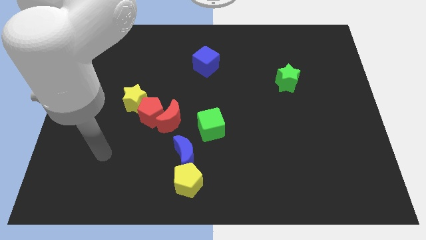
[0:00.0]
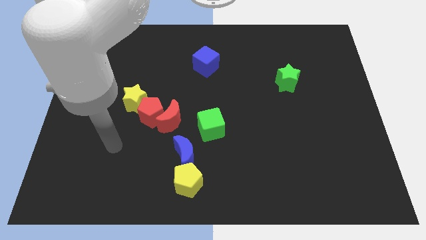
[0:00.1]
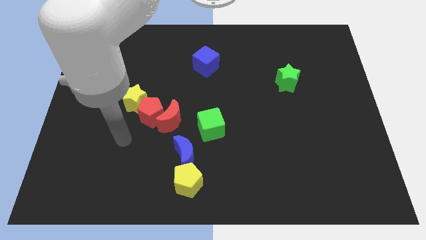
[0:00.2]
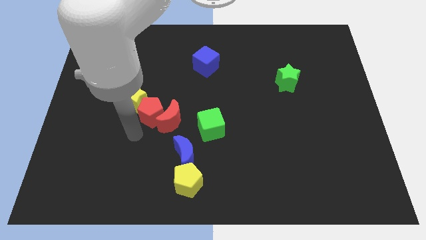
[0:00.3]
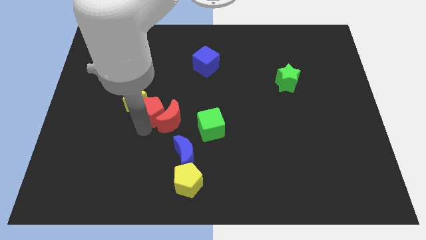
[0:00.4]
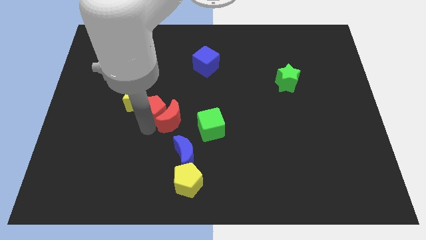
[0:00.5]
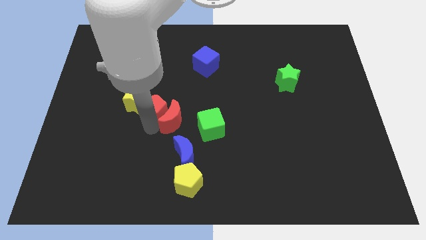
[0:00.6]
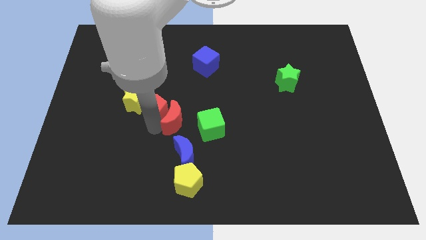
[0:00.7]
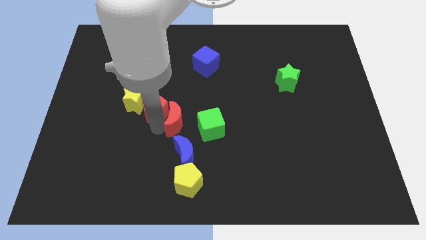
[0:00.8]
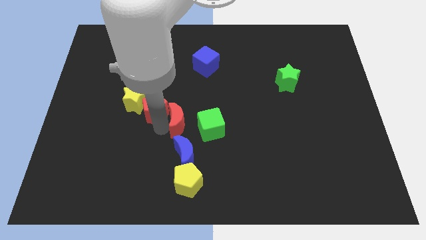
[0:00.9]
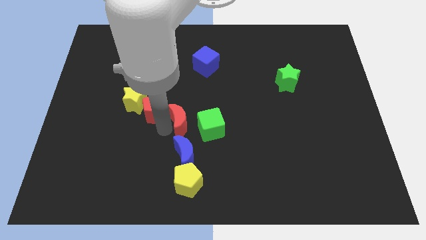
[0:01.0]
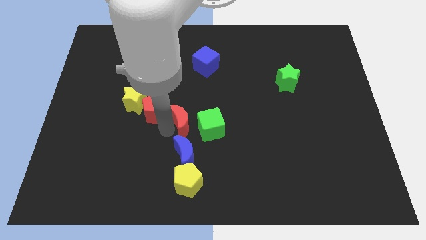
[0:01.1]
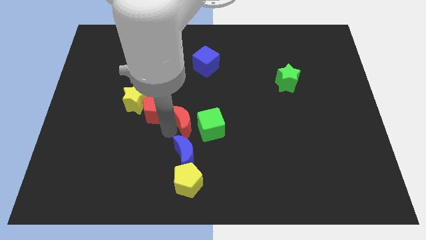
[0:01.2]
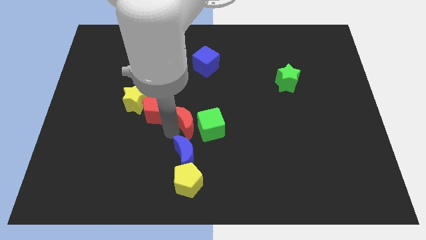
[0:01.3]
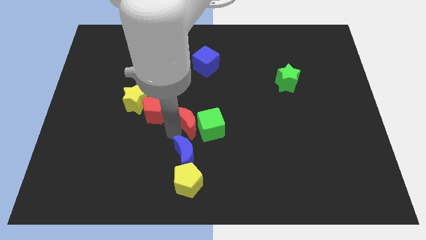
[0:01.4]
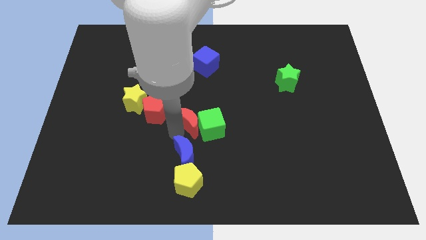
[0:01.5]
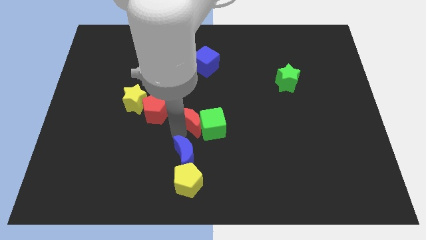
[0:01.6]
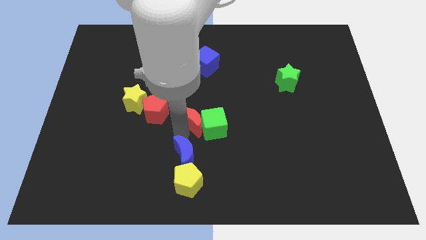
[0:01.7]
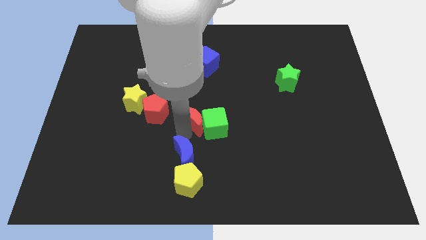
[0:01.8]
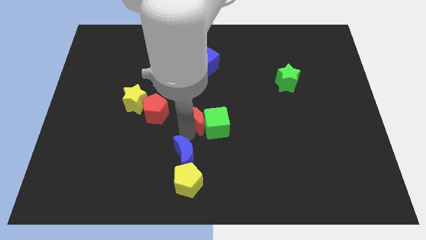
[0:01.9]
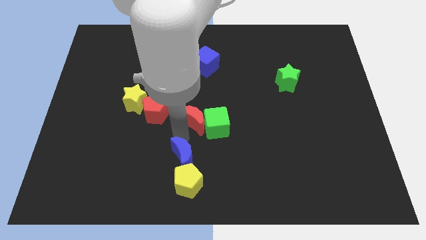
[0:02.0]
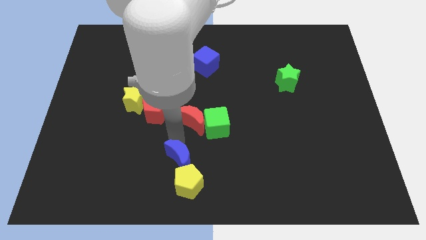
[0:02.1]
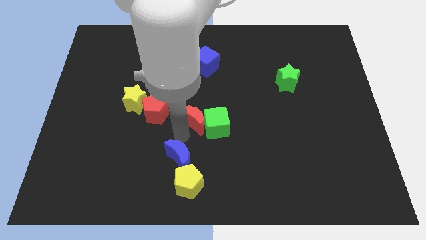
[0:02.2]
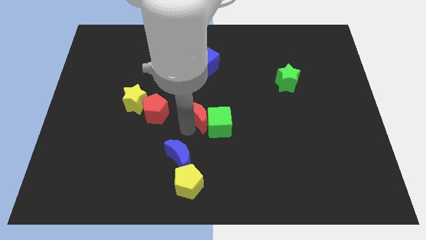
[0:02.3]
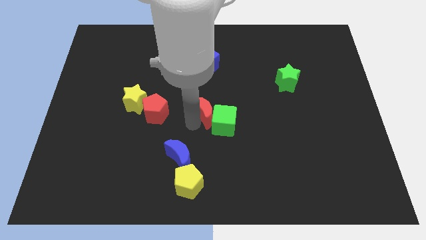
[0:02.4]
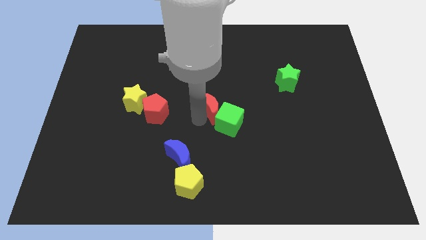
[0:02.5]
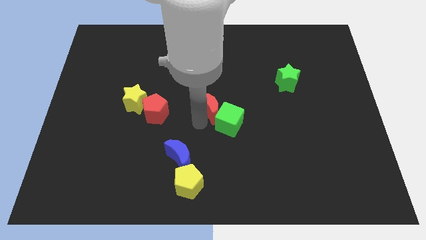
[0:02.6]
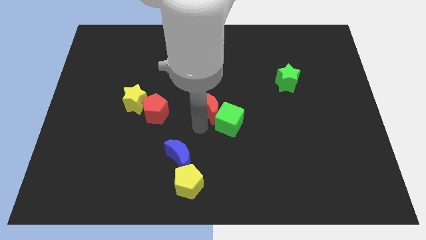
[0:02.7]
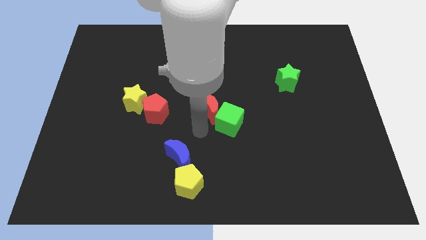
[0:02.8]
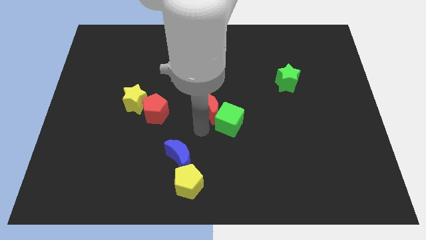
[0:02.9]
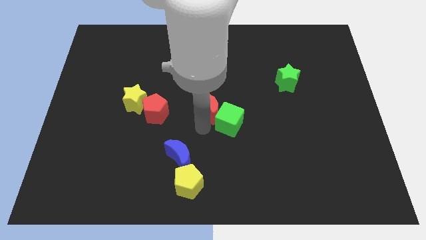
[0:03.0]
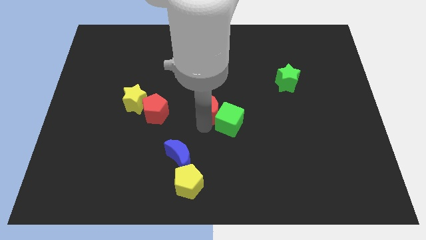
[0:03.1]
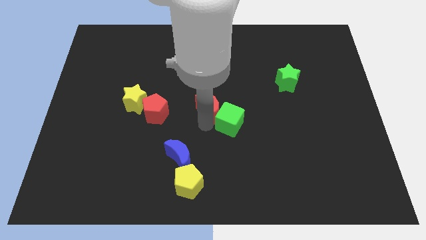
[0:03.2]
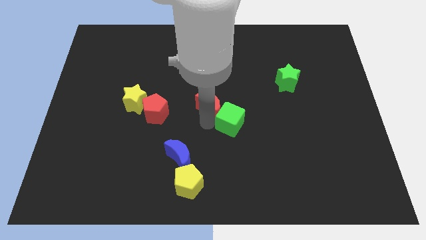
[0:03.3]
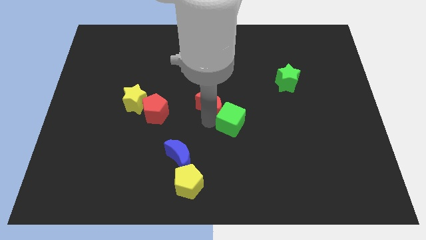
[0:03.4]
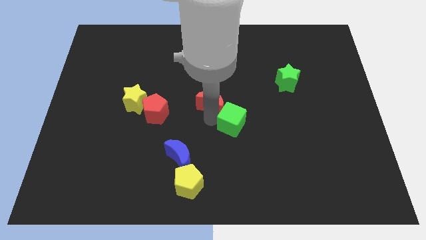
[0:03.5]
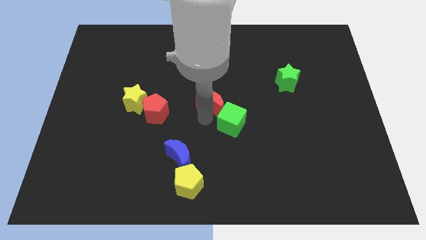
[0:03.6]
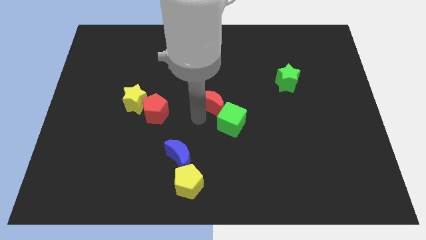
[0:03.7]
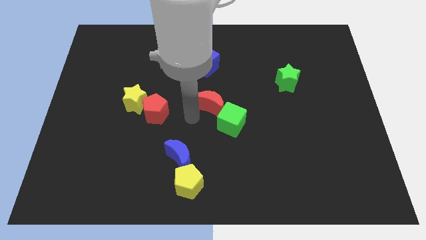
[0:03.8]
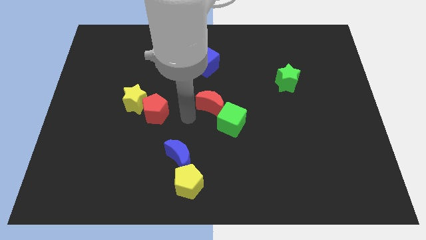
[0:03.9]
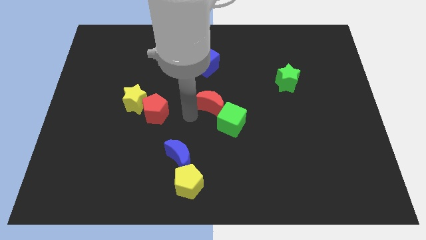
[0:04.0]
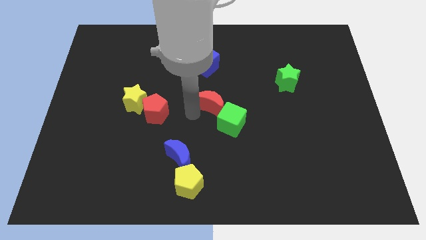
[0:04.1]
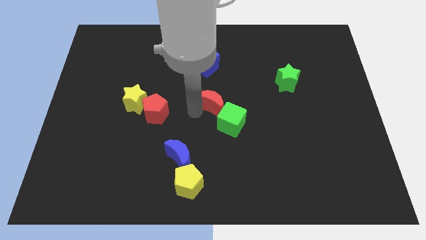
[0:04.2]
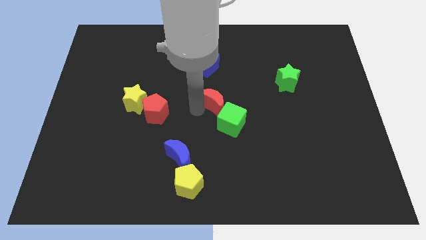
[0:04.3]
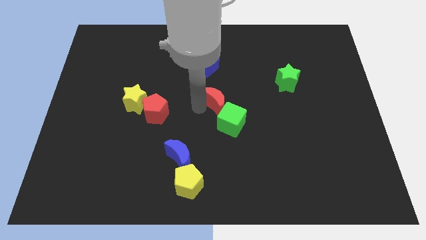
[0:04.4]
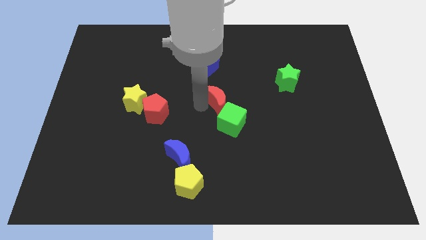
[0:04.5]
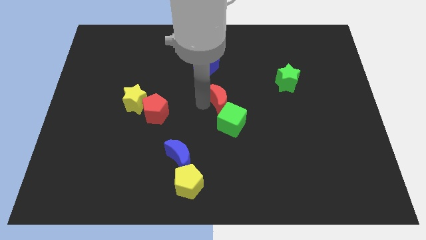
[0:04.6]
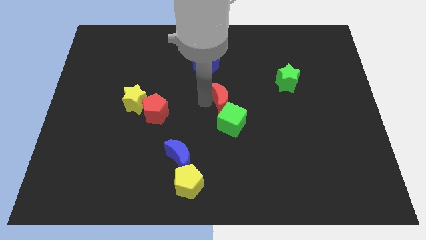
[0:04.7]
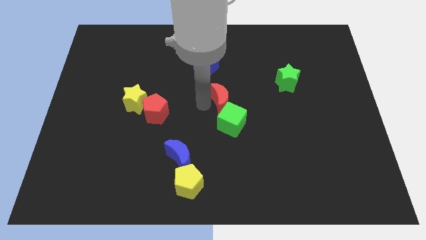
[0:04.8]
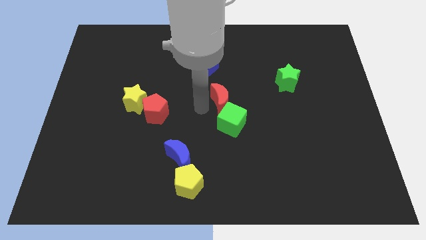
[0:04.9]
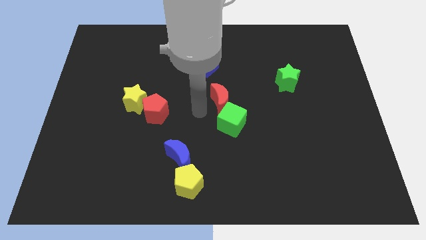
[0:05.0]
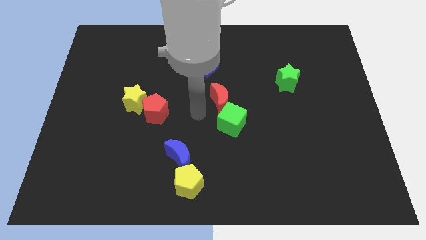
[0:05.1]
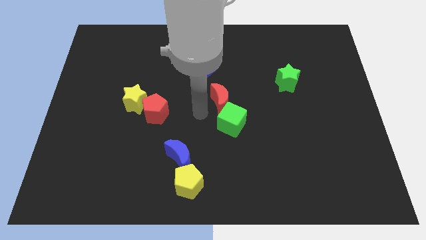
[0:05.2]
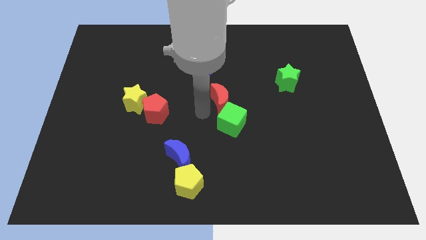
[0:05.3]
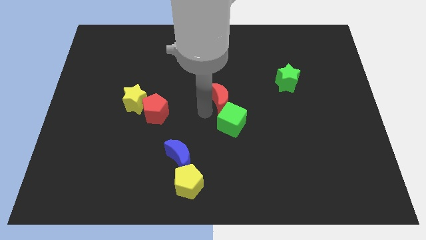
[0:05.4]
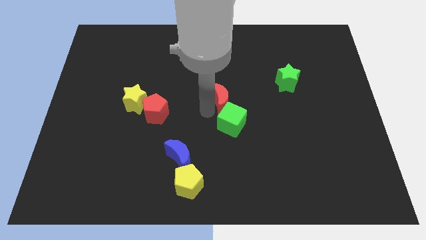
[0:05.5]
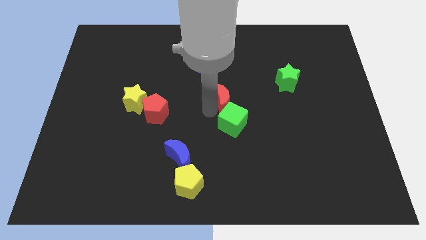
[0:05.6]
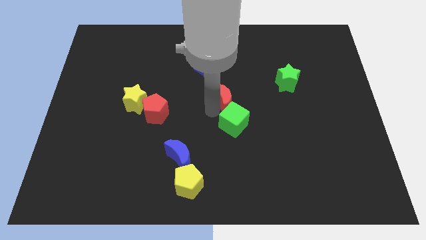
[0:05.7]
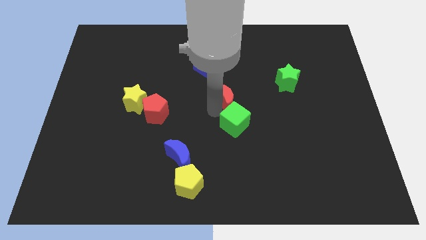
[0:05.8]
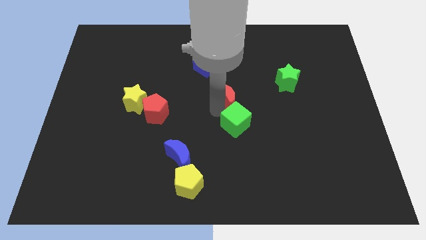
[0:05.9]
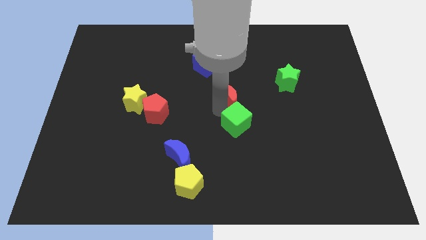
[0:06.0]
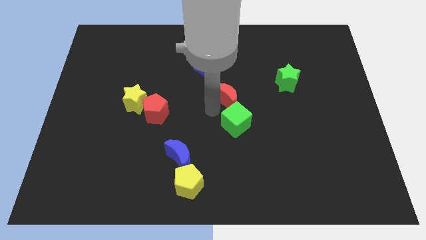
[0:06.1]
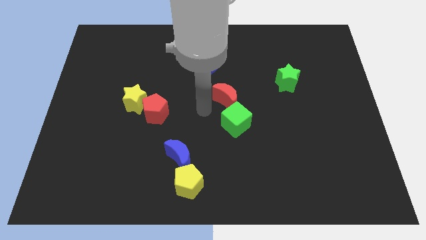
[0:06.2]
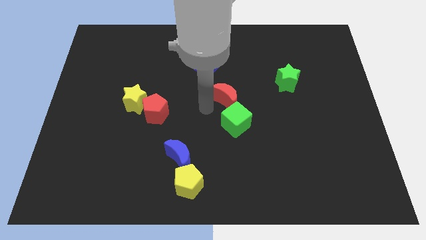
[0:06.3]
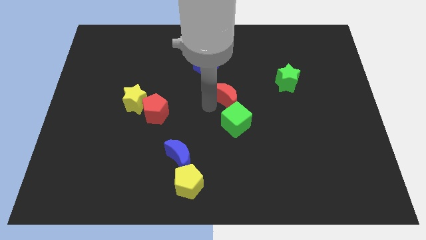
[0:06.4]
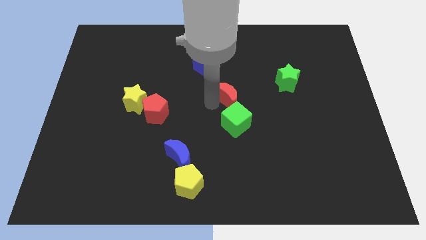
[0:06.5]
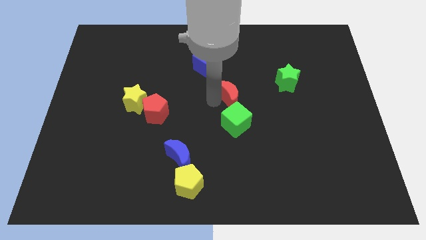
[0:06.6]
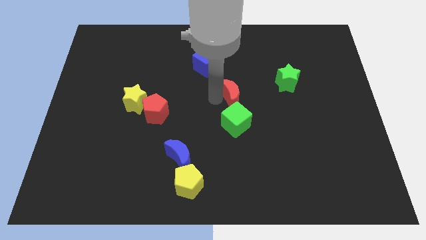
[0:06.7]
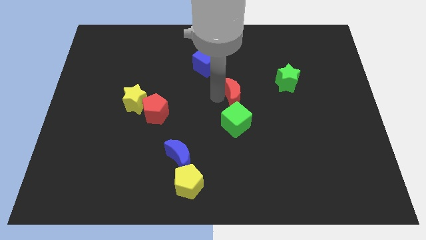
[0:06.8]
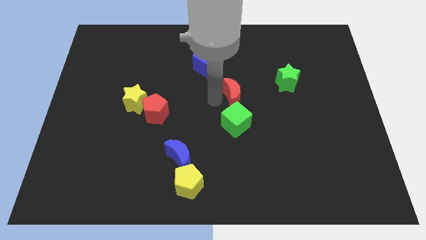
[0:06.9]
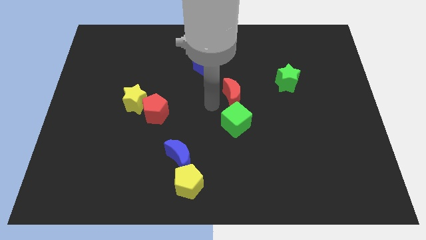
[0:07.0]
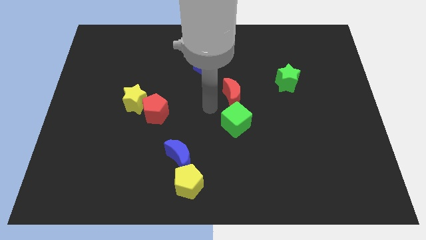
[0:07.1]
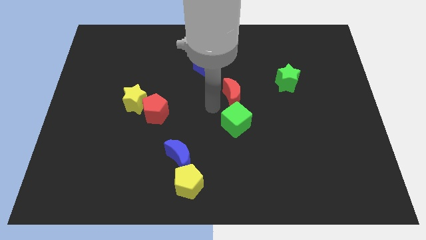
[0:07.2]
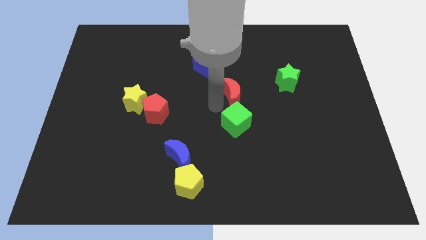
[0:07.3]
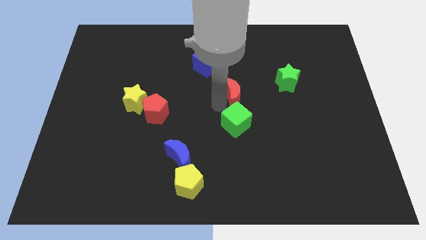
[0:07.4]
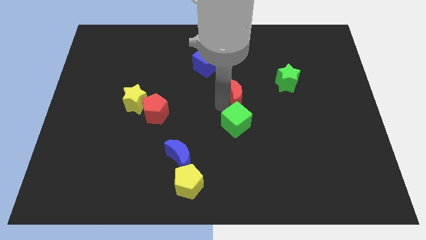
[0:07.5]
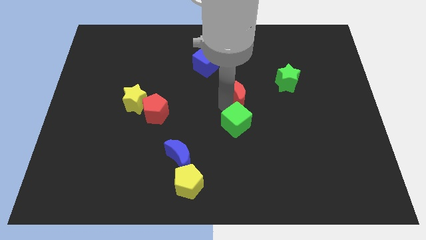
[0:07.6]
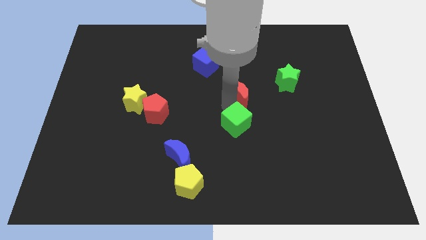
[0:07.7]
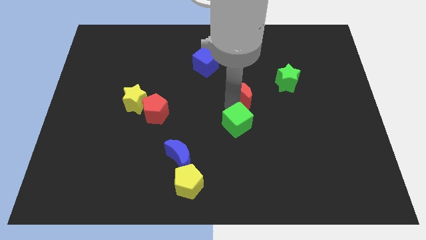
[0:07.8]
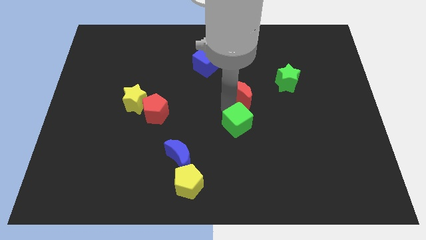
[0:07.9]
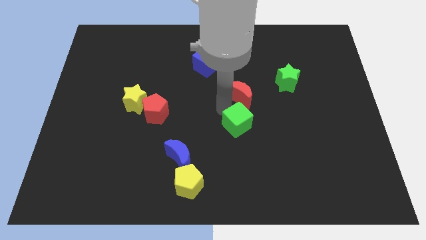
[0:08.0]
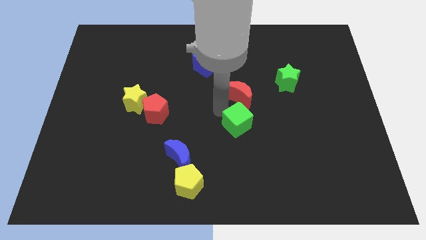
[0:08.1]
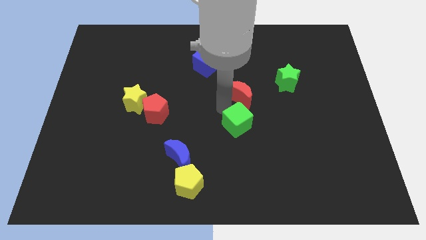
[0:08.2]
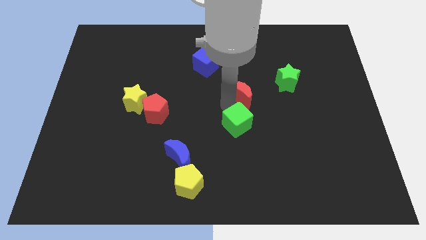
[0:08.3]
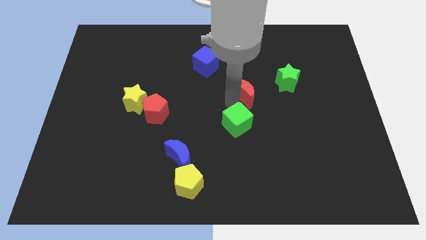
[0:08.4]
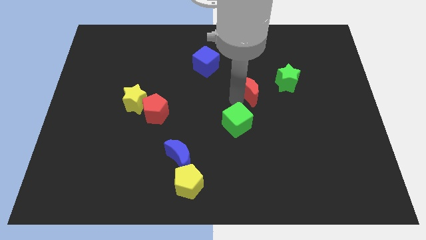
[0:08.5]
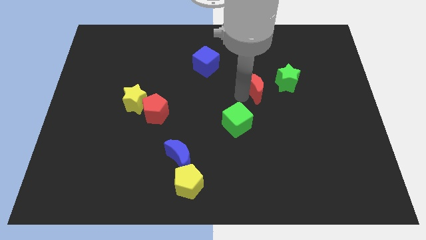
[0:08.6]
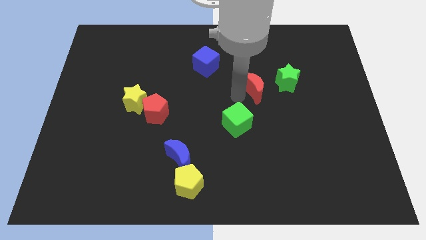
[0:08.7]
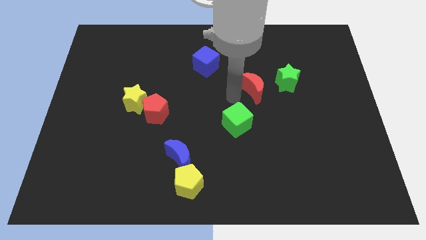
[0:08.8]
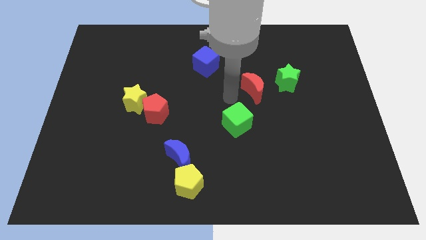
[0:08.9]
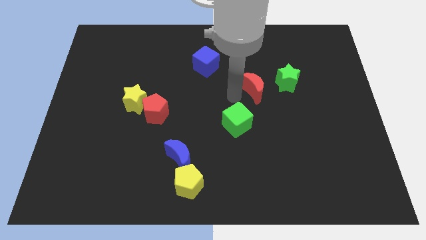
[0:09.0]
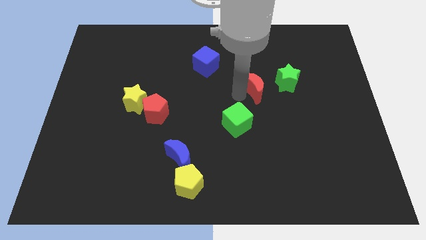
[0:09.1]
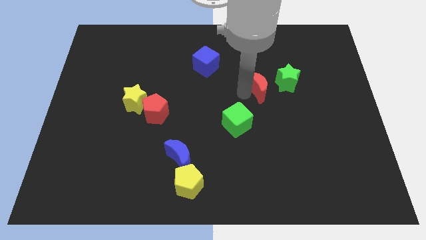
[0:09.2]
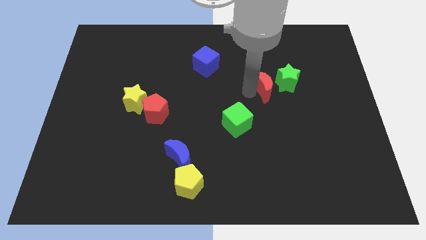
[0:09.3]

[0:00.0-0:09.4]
slide the red moon towards the green star
